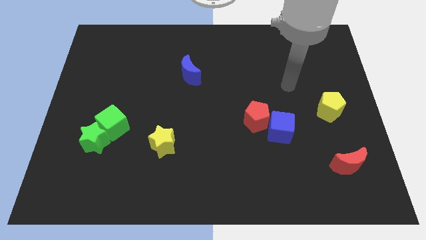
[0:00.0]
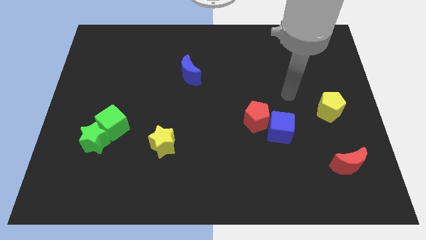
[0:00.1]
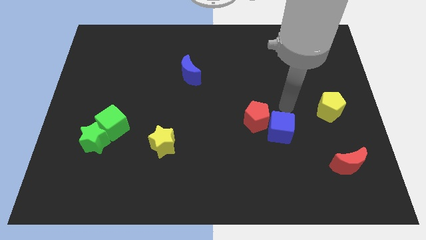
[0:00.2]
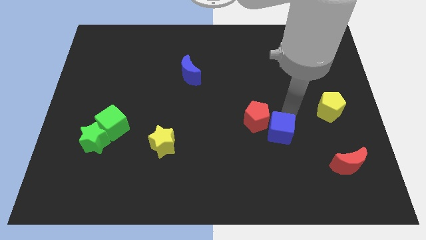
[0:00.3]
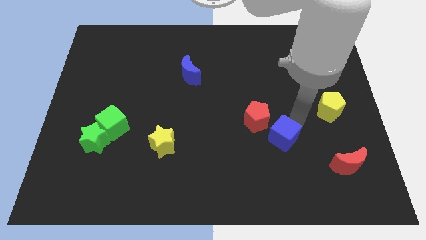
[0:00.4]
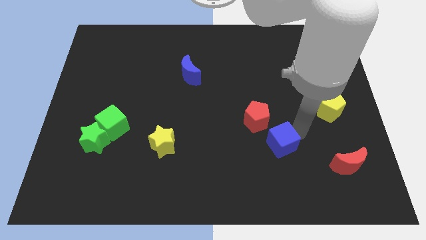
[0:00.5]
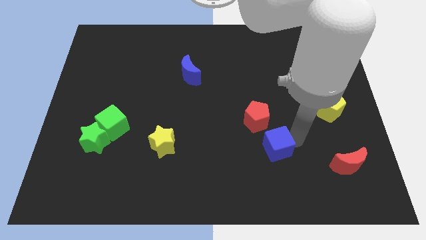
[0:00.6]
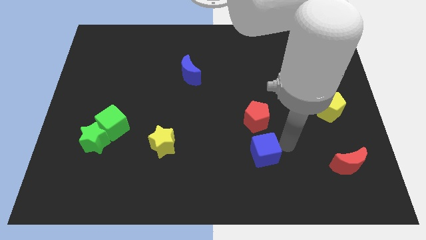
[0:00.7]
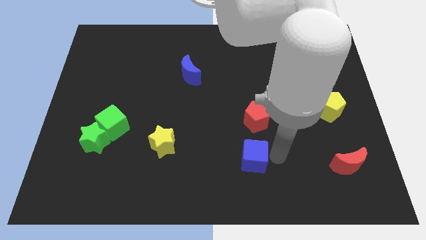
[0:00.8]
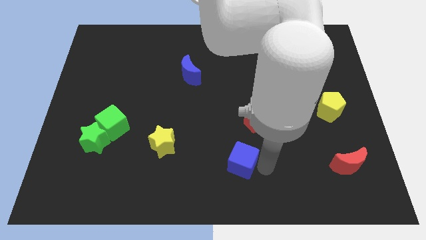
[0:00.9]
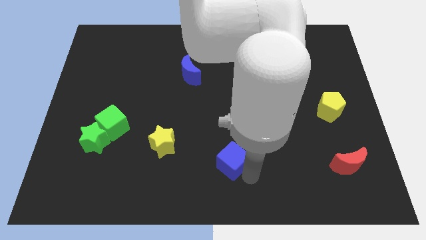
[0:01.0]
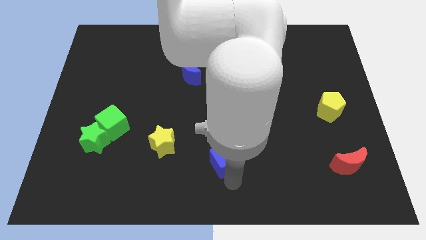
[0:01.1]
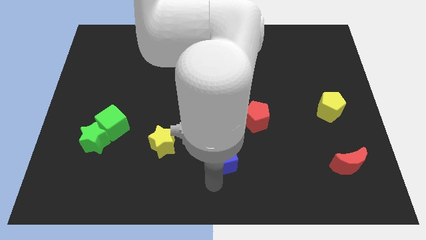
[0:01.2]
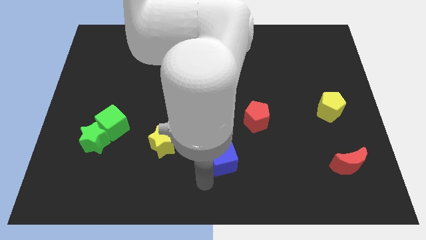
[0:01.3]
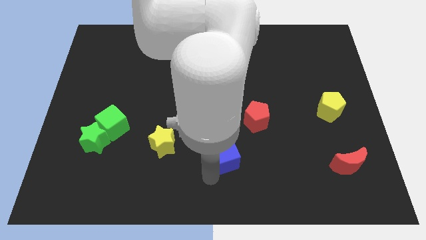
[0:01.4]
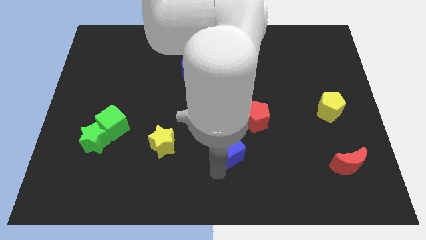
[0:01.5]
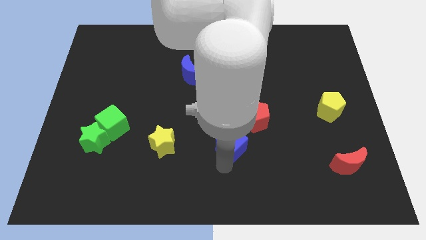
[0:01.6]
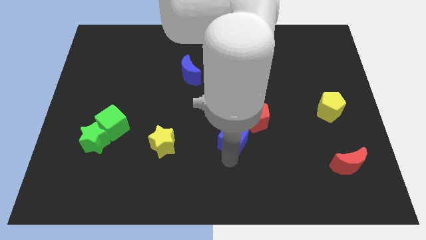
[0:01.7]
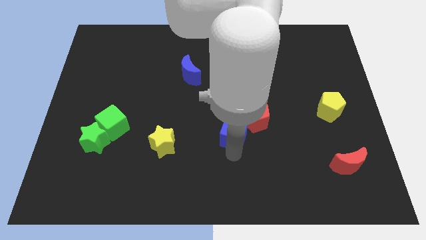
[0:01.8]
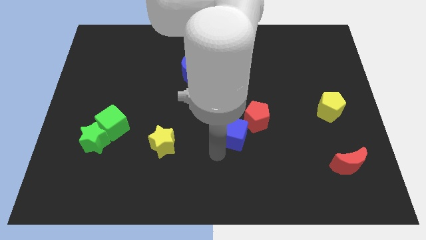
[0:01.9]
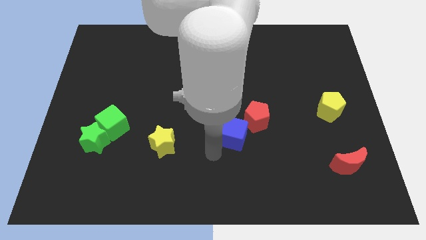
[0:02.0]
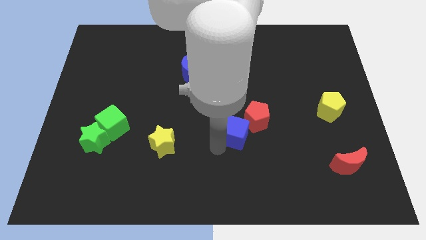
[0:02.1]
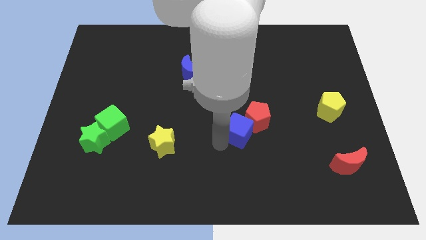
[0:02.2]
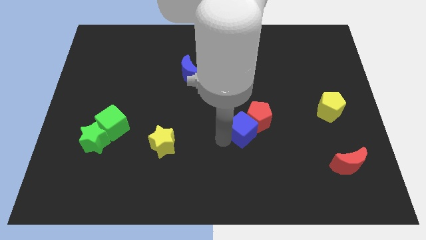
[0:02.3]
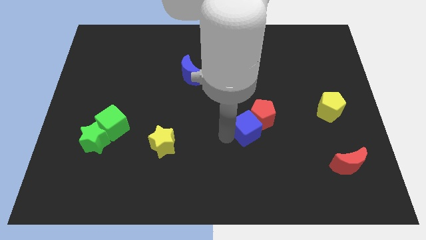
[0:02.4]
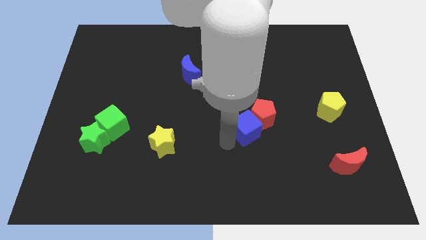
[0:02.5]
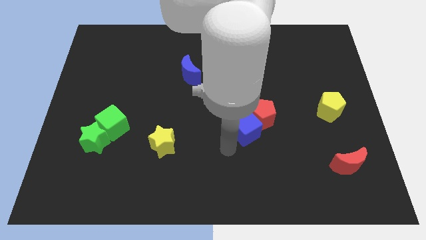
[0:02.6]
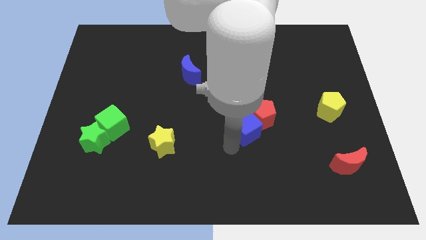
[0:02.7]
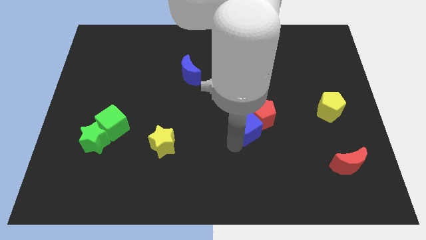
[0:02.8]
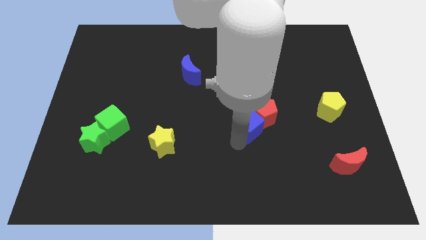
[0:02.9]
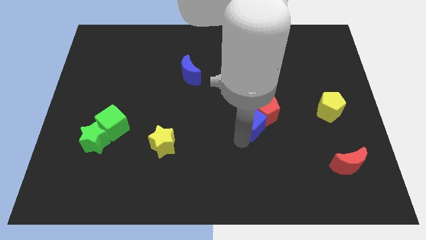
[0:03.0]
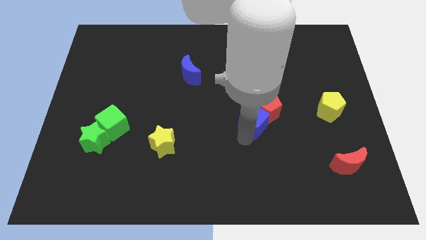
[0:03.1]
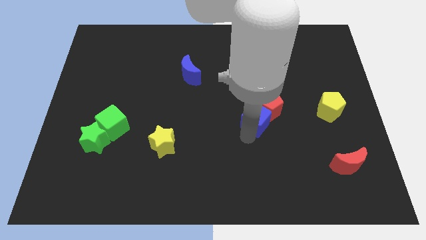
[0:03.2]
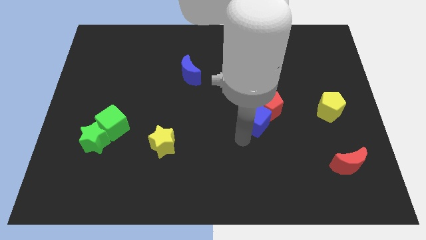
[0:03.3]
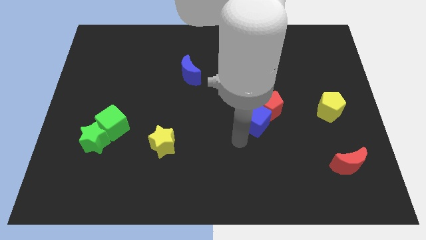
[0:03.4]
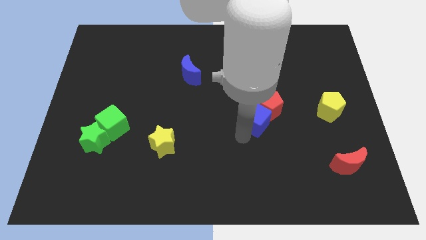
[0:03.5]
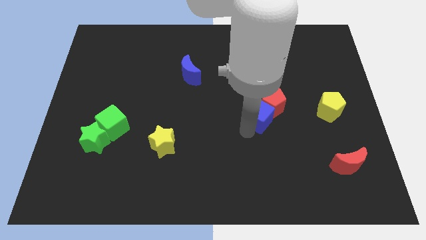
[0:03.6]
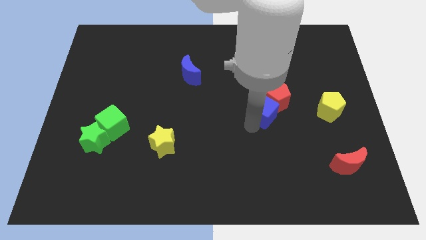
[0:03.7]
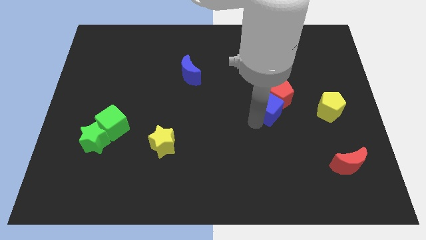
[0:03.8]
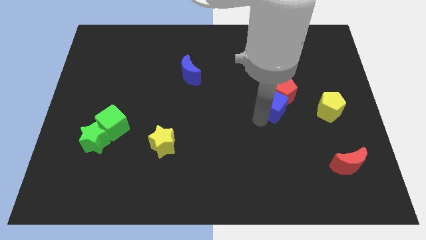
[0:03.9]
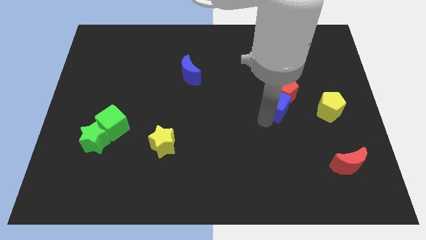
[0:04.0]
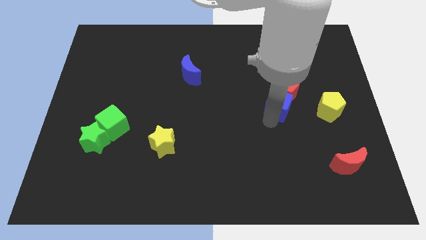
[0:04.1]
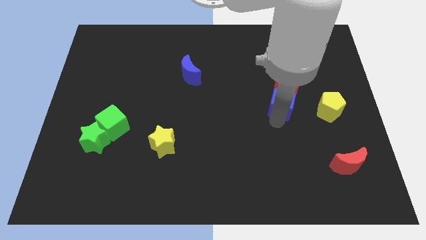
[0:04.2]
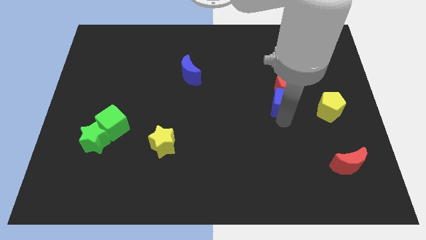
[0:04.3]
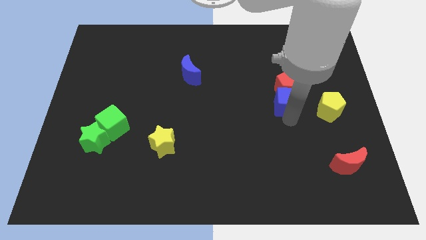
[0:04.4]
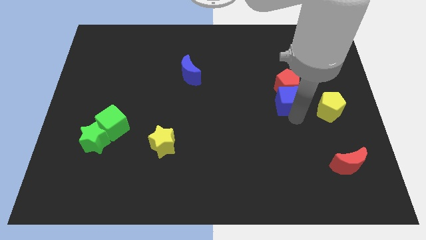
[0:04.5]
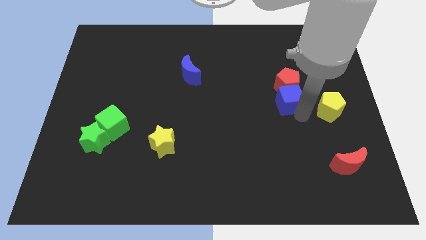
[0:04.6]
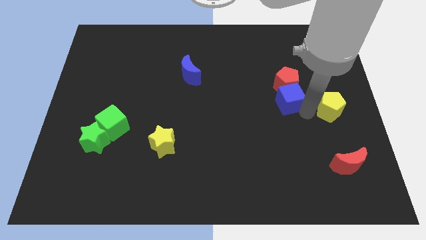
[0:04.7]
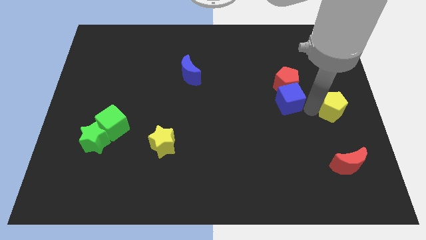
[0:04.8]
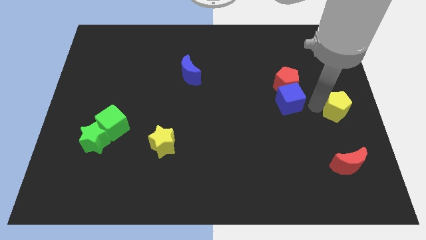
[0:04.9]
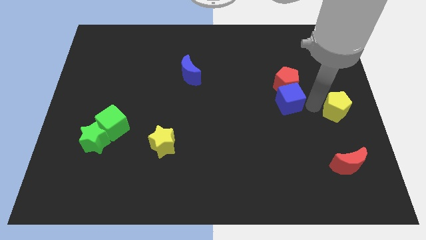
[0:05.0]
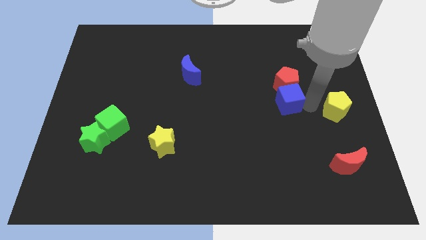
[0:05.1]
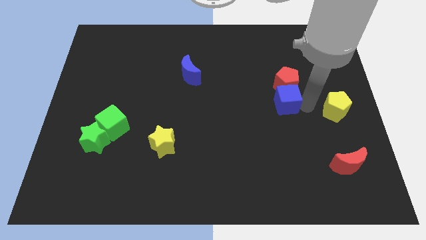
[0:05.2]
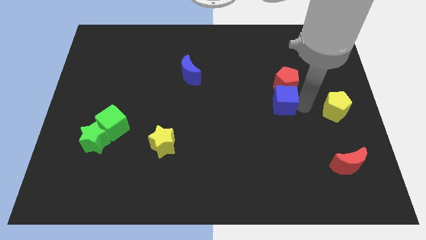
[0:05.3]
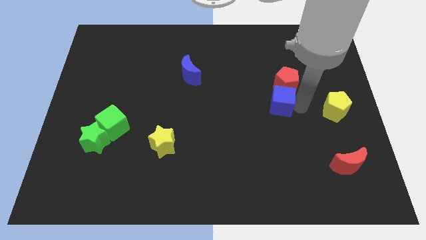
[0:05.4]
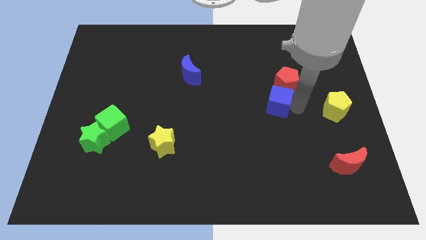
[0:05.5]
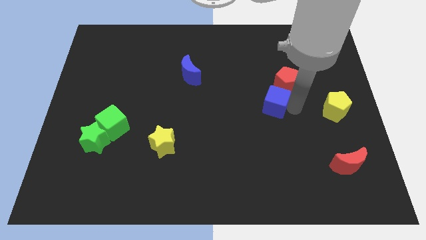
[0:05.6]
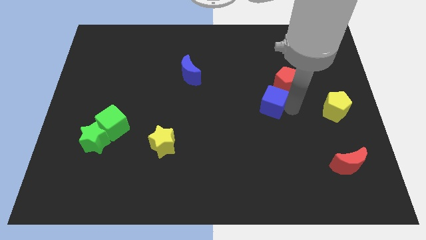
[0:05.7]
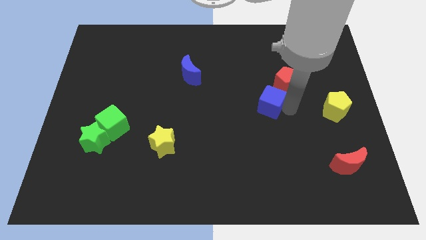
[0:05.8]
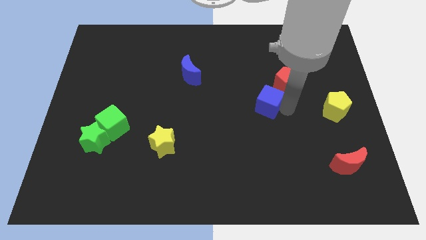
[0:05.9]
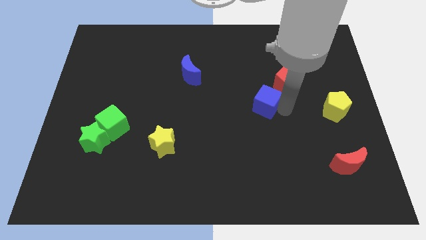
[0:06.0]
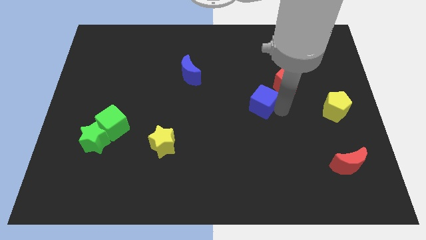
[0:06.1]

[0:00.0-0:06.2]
slightly slide the blue cube upwards and left diagonally

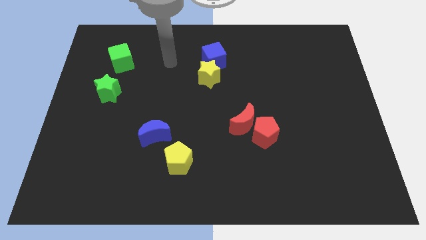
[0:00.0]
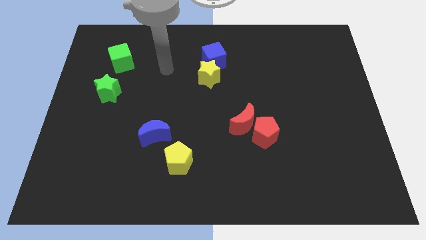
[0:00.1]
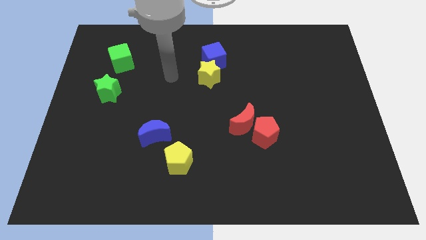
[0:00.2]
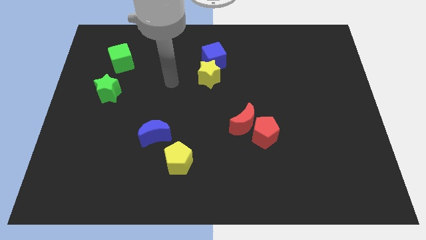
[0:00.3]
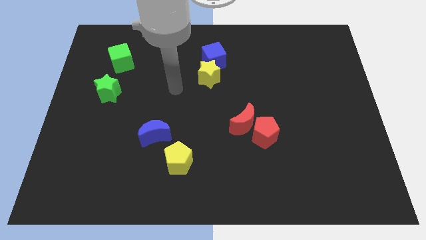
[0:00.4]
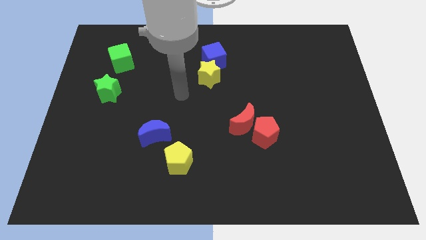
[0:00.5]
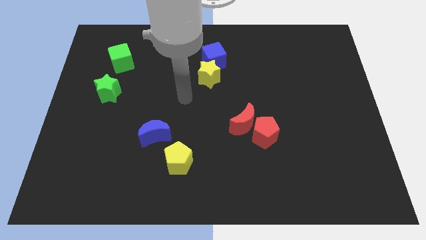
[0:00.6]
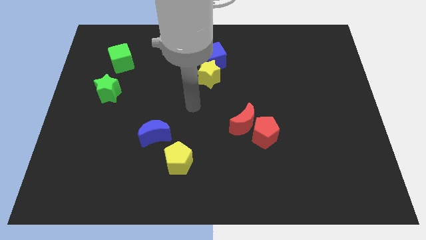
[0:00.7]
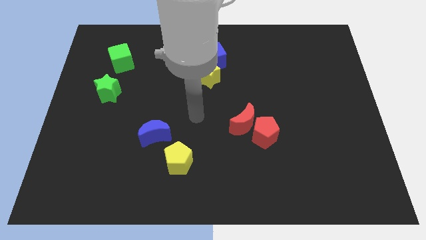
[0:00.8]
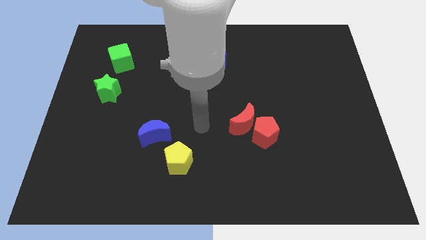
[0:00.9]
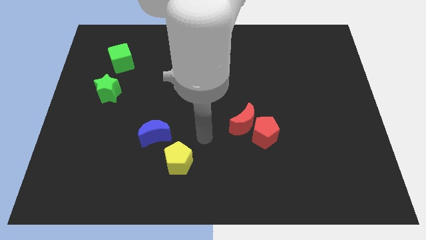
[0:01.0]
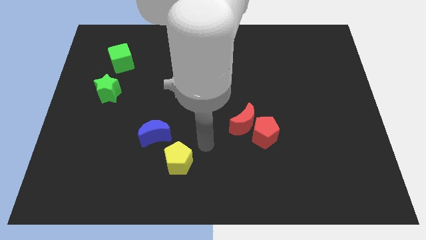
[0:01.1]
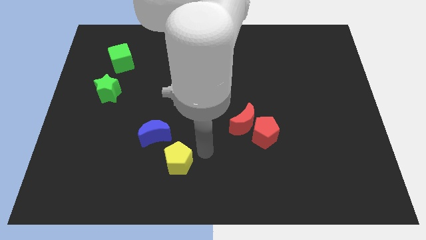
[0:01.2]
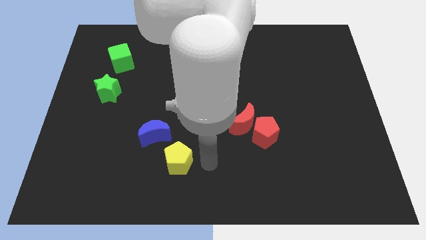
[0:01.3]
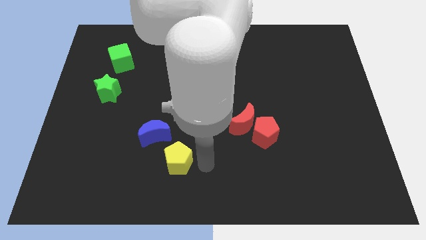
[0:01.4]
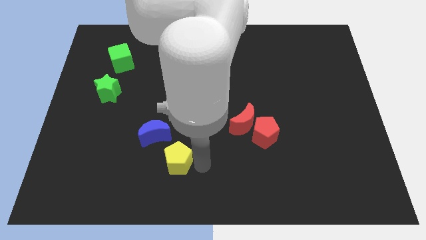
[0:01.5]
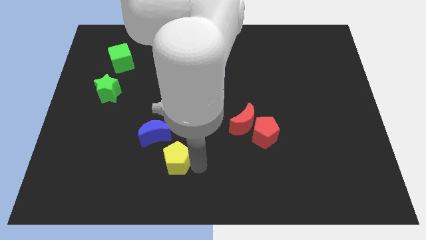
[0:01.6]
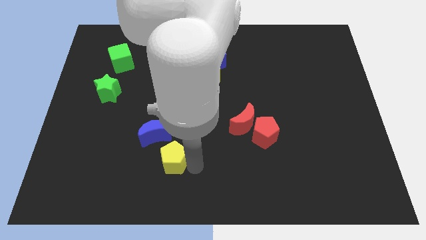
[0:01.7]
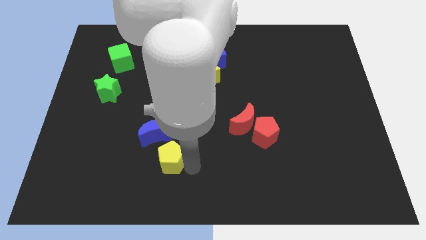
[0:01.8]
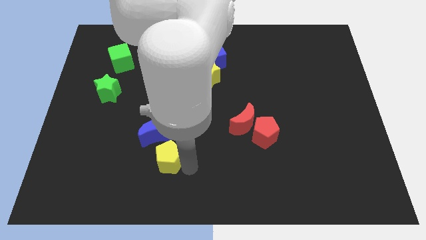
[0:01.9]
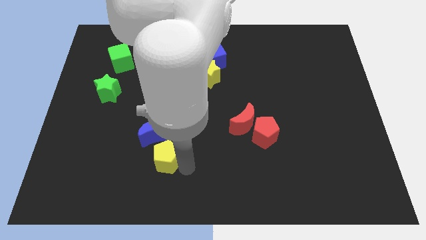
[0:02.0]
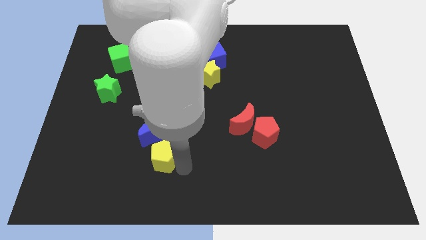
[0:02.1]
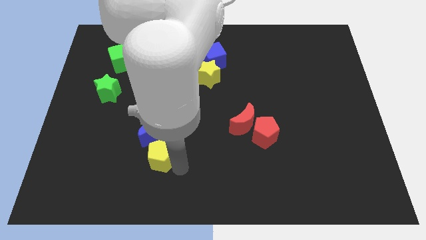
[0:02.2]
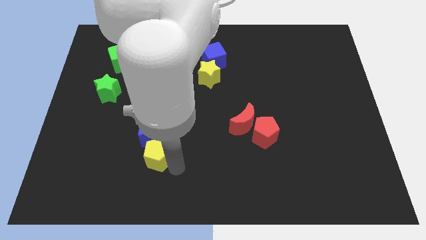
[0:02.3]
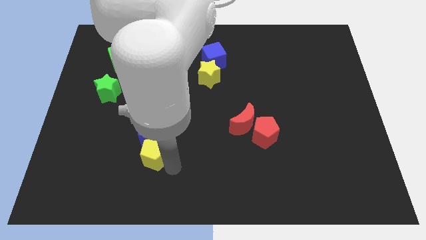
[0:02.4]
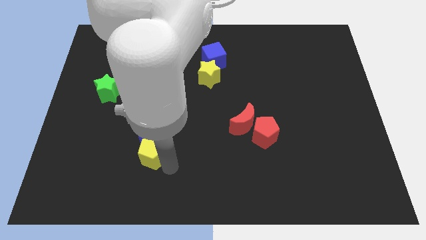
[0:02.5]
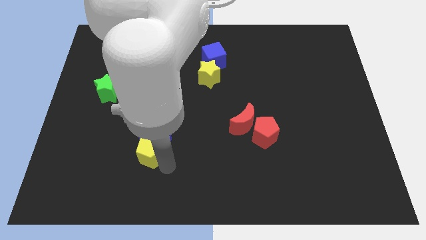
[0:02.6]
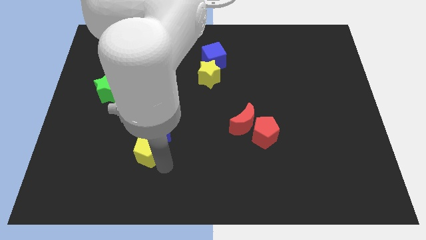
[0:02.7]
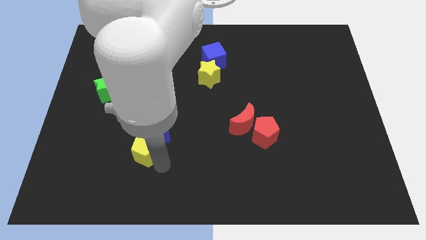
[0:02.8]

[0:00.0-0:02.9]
slightly slide the yellow pentagon to the left
